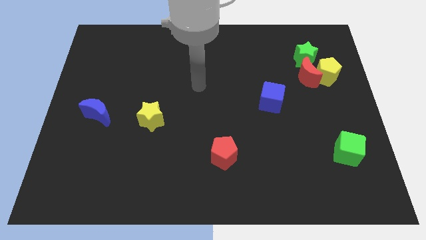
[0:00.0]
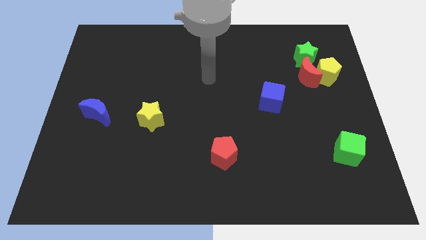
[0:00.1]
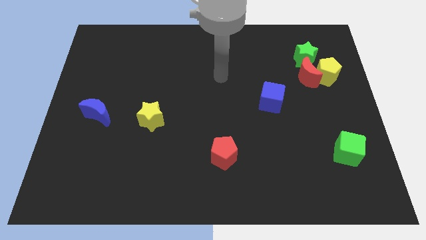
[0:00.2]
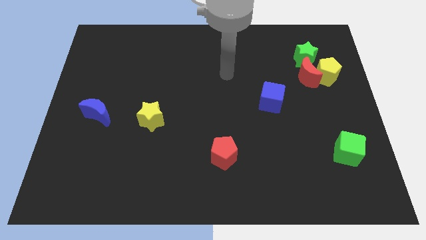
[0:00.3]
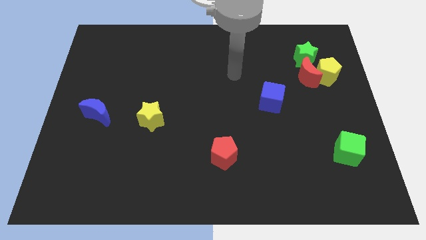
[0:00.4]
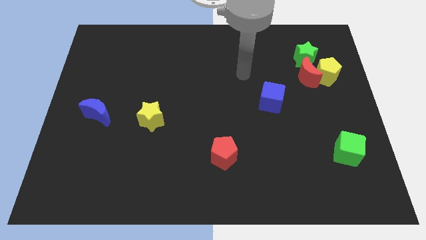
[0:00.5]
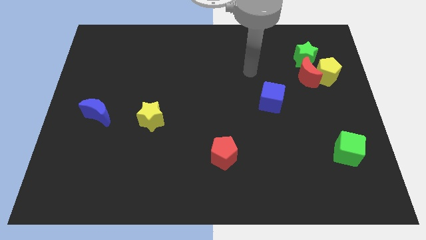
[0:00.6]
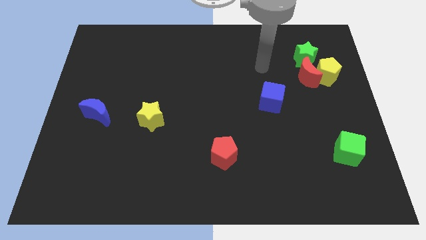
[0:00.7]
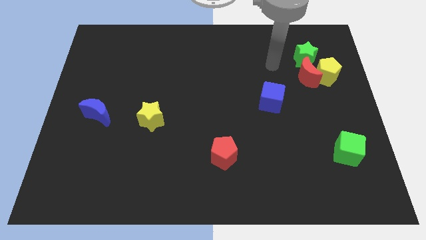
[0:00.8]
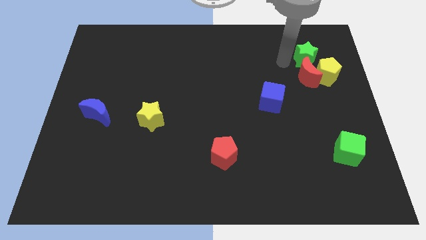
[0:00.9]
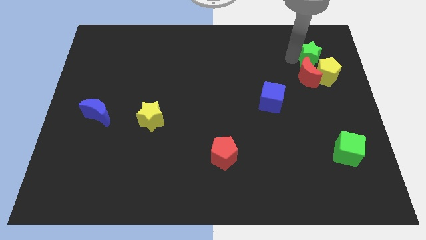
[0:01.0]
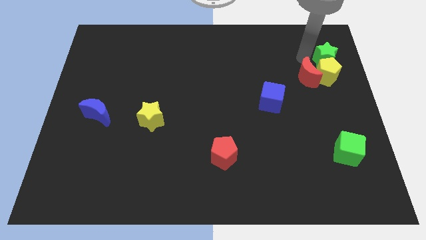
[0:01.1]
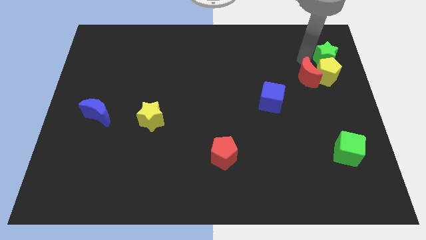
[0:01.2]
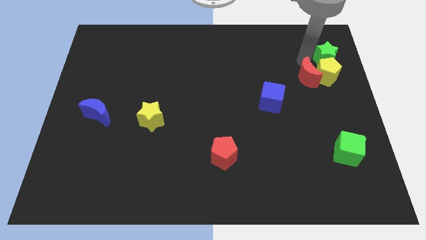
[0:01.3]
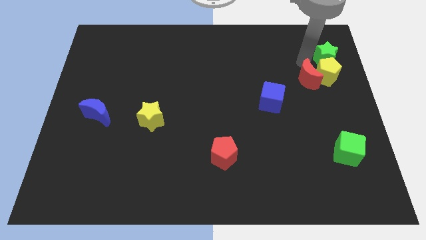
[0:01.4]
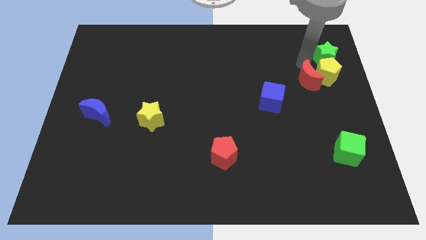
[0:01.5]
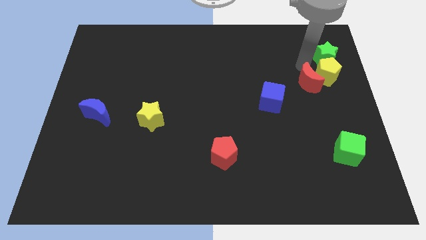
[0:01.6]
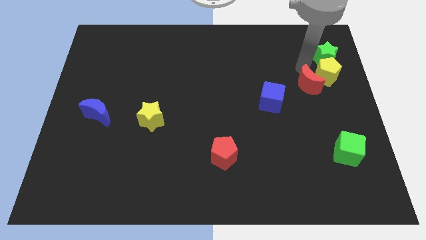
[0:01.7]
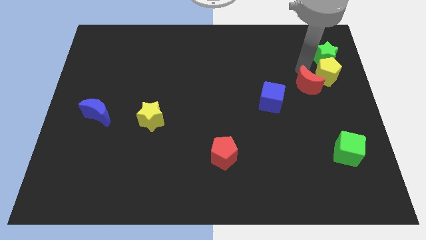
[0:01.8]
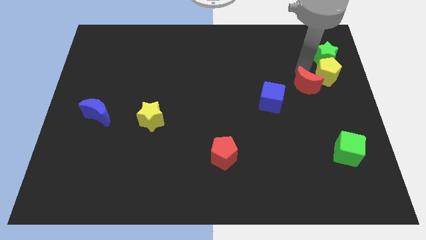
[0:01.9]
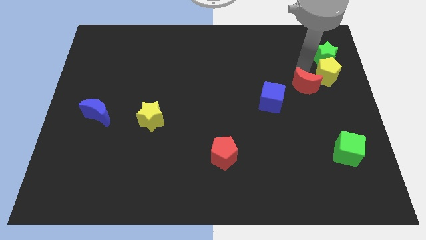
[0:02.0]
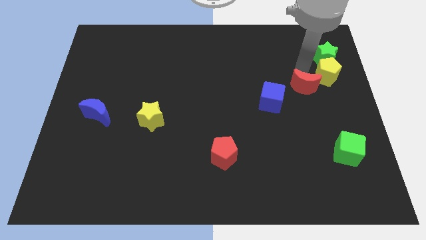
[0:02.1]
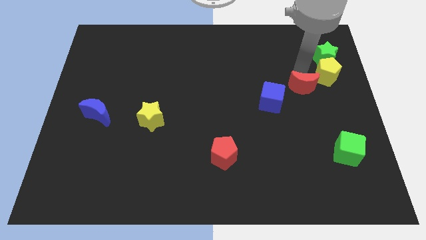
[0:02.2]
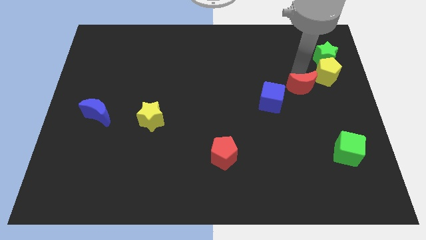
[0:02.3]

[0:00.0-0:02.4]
move the red moon away from the yellow pentagon and green star

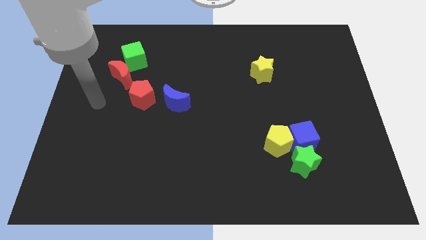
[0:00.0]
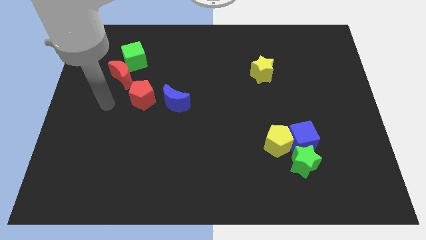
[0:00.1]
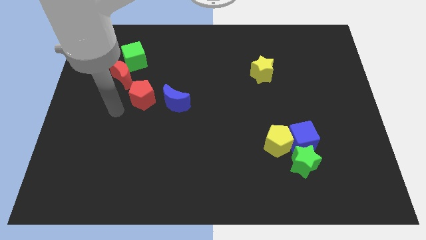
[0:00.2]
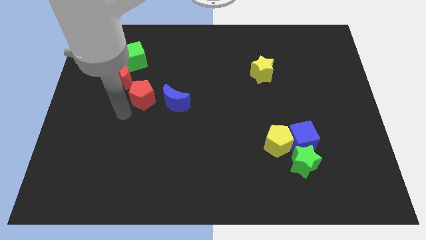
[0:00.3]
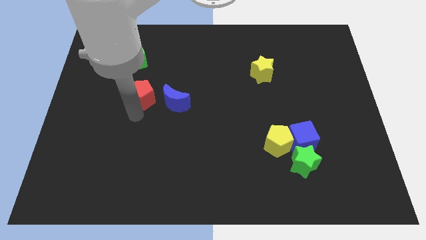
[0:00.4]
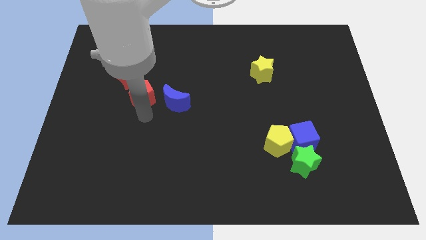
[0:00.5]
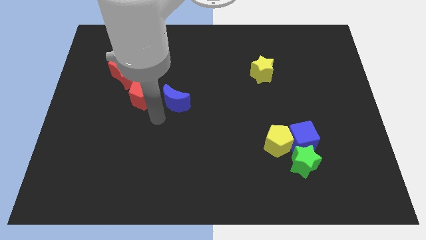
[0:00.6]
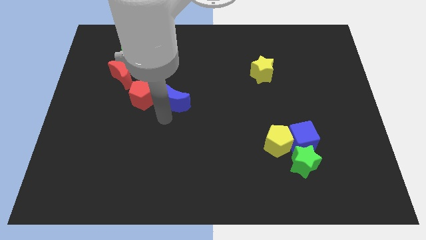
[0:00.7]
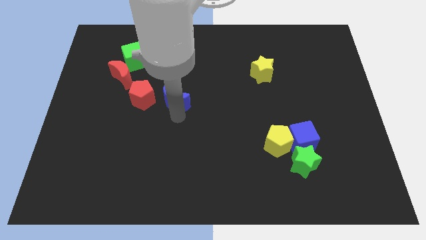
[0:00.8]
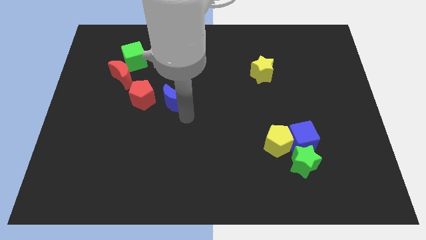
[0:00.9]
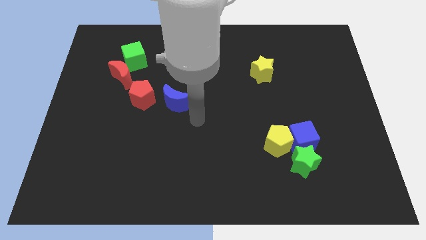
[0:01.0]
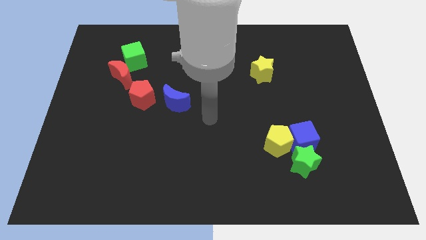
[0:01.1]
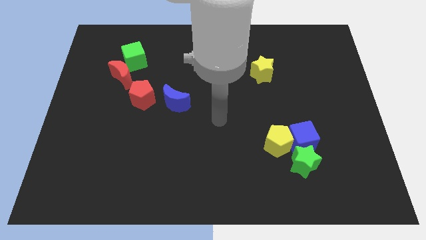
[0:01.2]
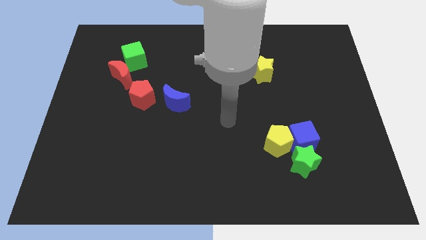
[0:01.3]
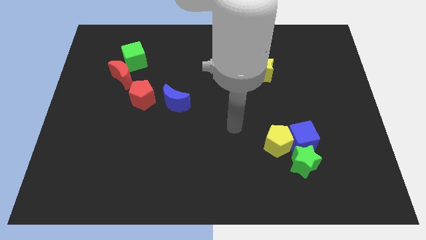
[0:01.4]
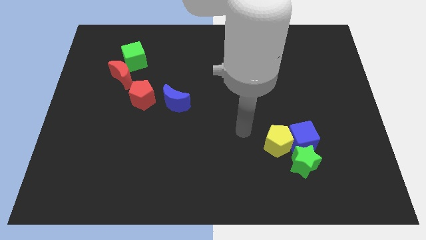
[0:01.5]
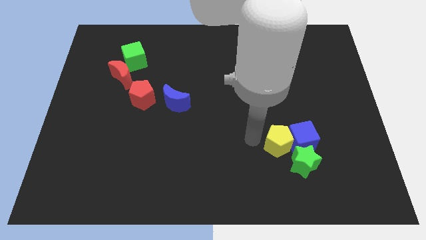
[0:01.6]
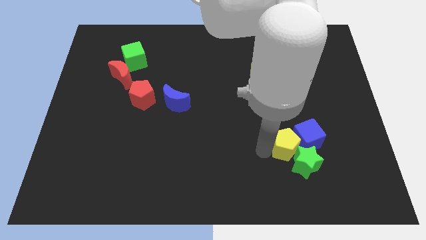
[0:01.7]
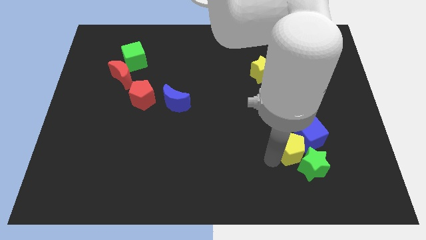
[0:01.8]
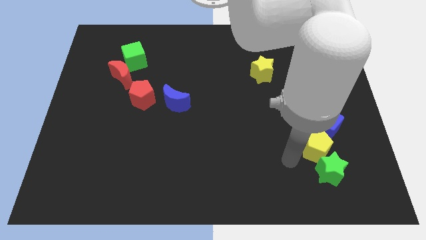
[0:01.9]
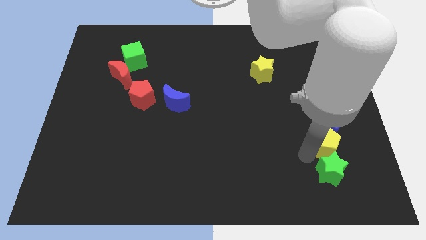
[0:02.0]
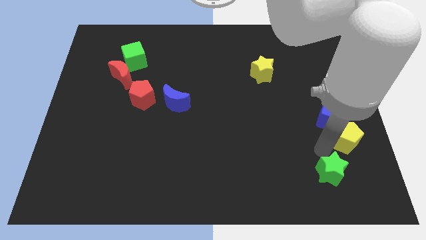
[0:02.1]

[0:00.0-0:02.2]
pull the blue cube apart from the yellow pentagon and green star

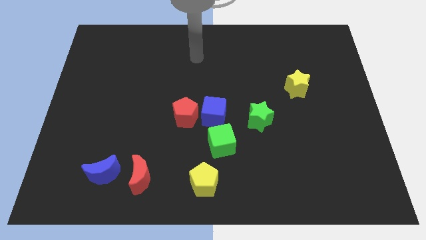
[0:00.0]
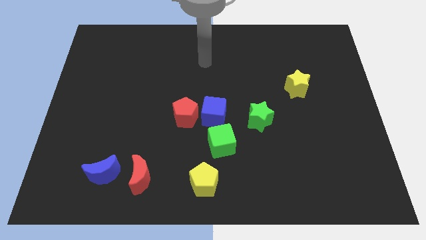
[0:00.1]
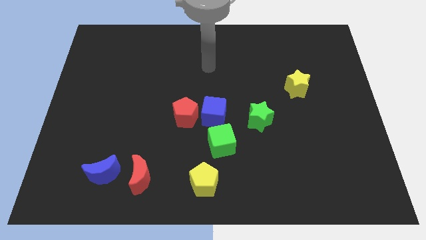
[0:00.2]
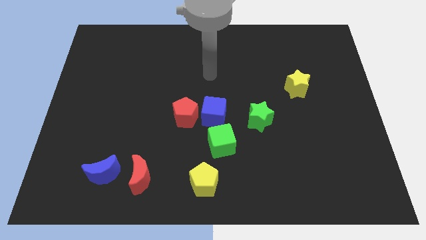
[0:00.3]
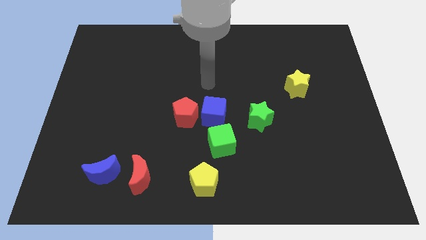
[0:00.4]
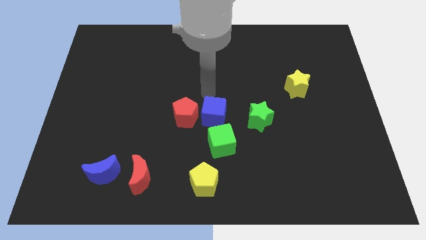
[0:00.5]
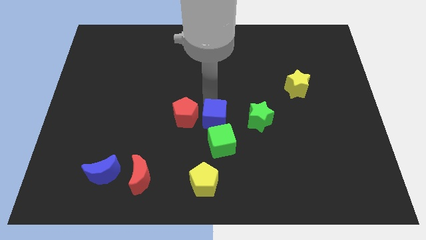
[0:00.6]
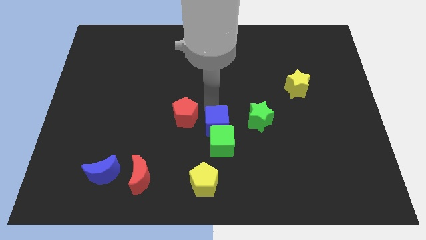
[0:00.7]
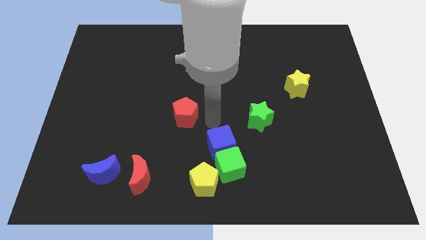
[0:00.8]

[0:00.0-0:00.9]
separate the red pentagon from the blue cube

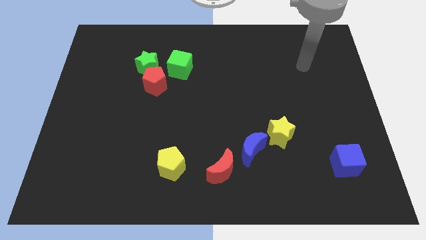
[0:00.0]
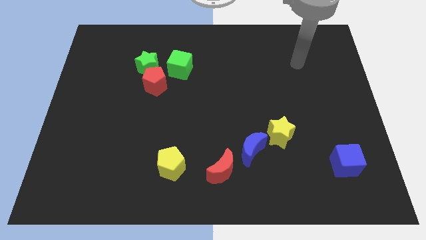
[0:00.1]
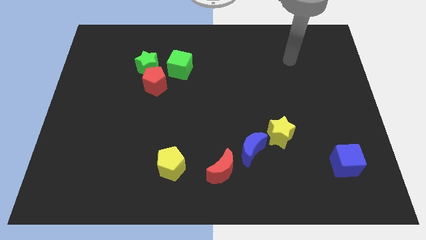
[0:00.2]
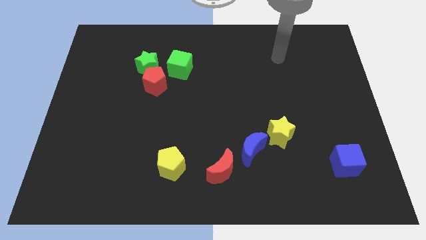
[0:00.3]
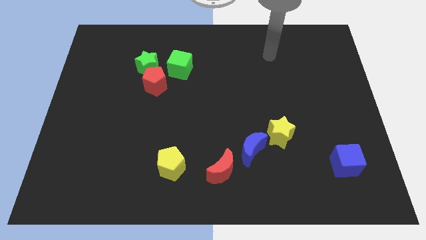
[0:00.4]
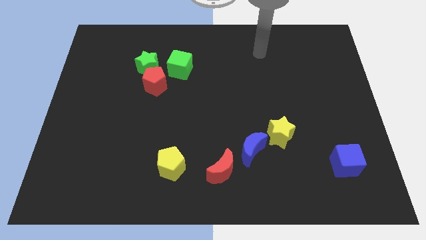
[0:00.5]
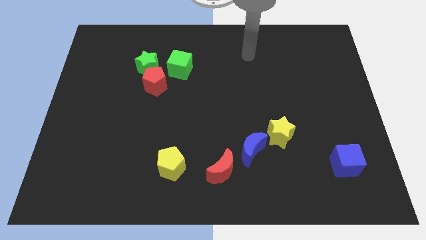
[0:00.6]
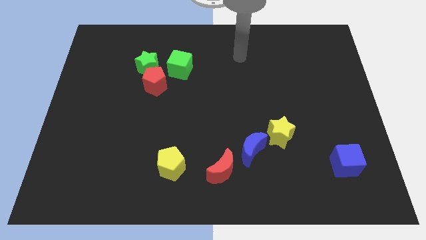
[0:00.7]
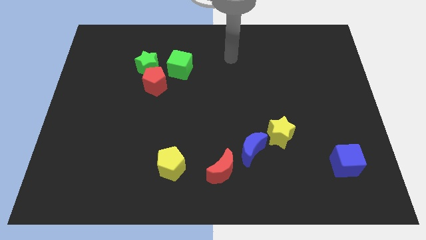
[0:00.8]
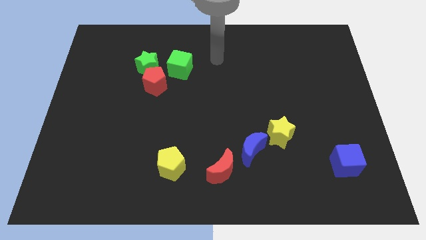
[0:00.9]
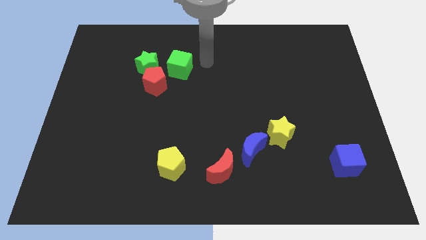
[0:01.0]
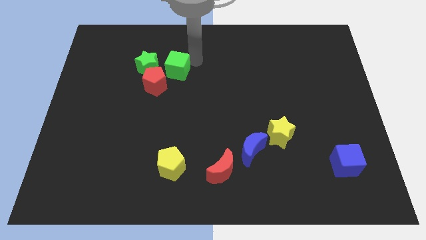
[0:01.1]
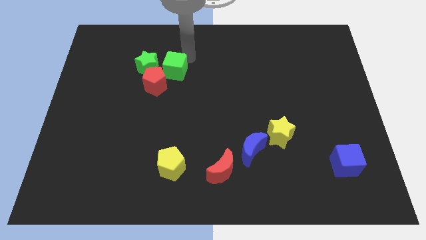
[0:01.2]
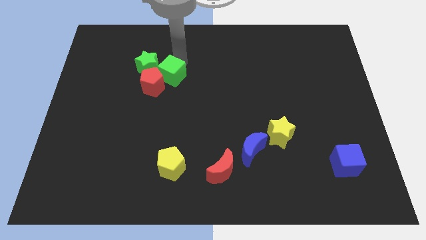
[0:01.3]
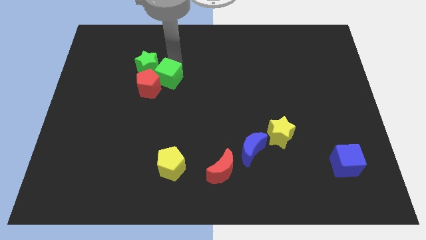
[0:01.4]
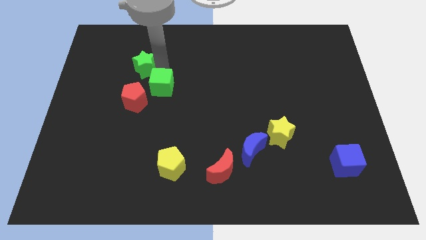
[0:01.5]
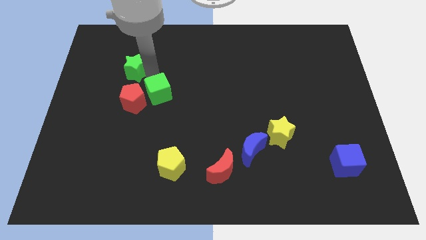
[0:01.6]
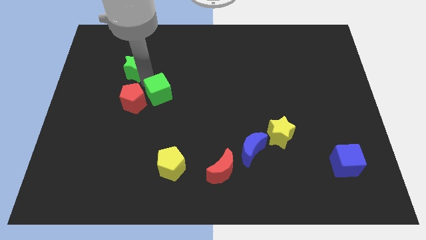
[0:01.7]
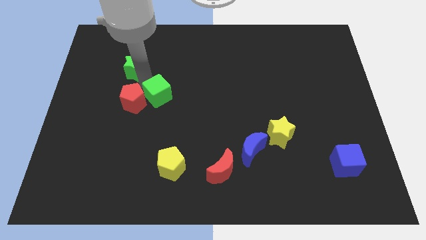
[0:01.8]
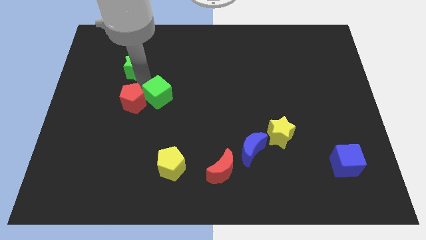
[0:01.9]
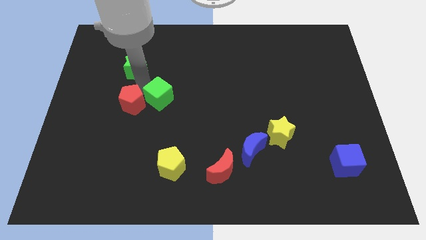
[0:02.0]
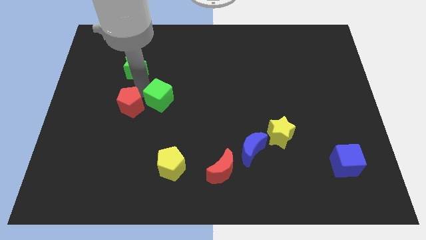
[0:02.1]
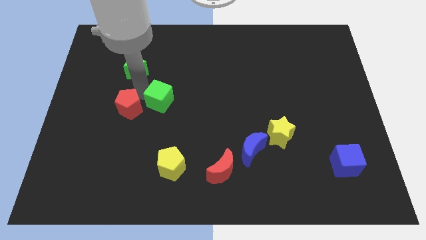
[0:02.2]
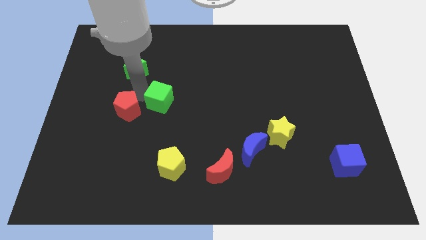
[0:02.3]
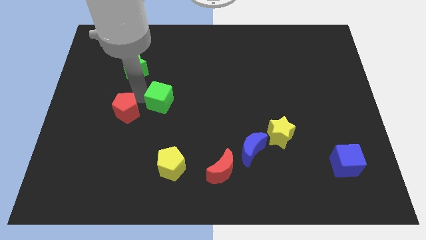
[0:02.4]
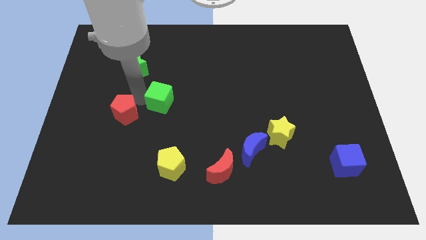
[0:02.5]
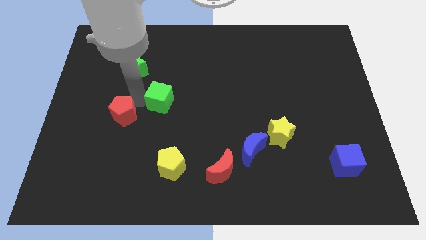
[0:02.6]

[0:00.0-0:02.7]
move the red pentagon away from the green star and green cube

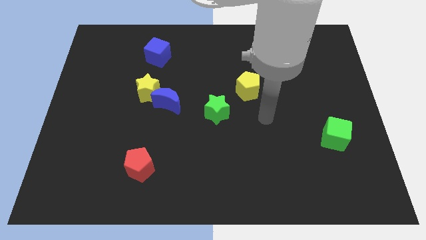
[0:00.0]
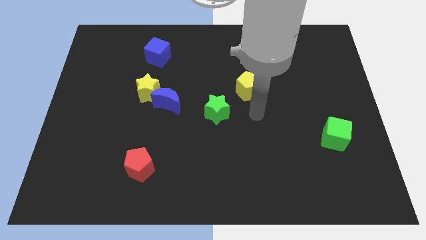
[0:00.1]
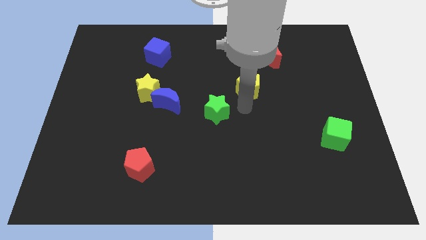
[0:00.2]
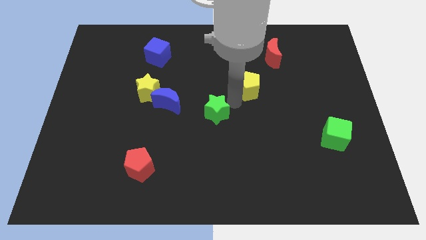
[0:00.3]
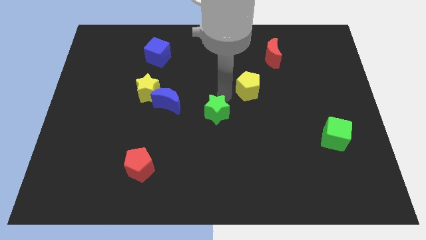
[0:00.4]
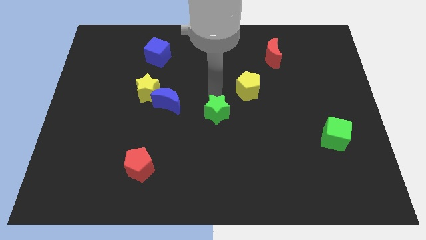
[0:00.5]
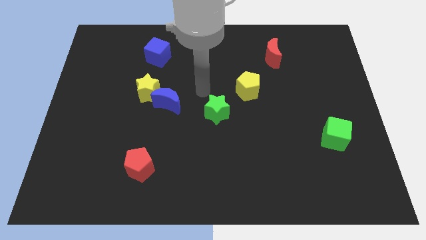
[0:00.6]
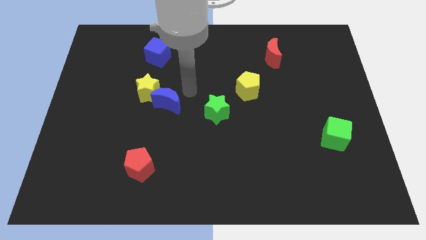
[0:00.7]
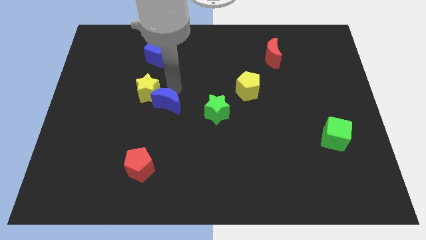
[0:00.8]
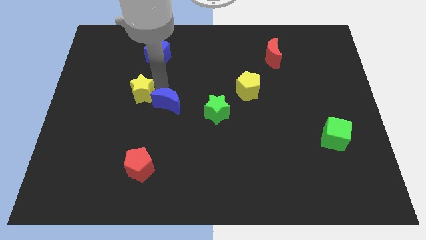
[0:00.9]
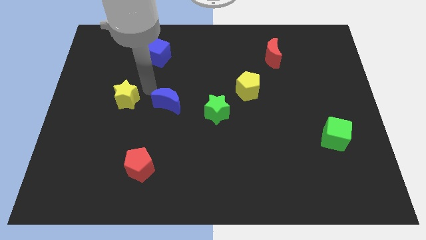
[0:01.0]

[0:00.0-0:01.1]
pull the blue moon apart from the yellow star
